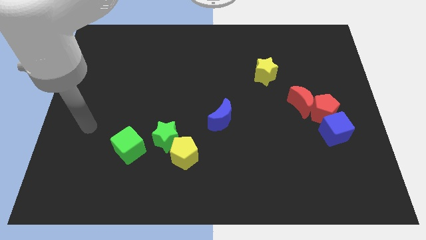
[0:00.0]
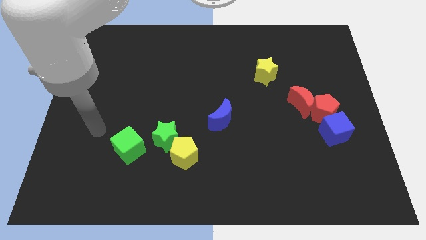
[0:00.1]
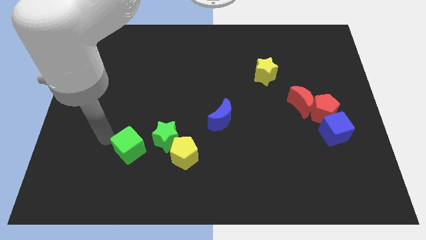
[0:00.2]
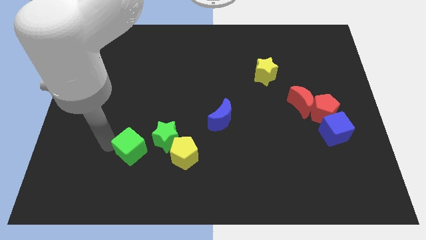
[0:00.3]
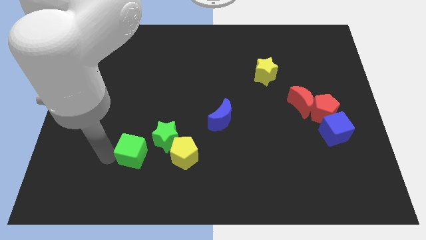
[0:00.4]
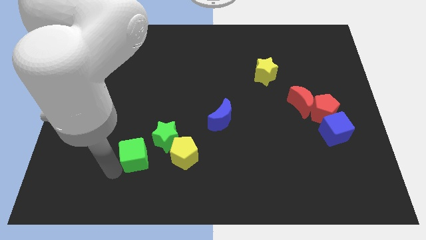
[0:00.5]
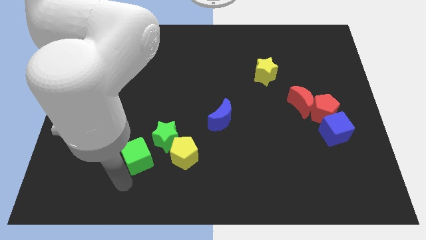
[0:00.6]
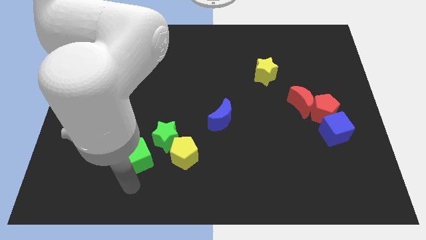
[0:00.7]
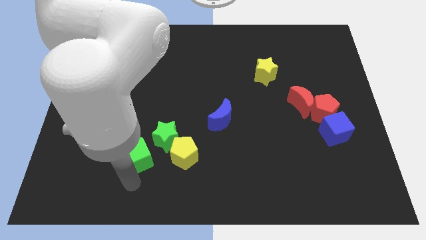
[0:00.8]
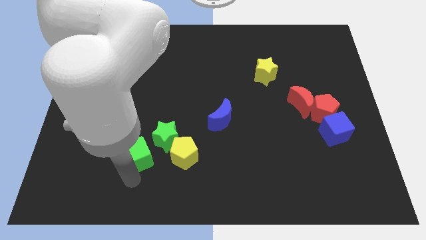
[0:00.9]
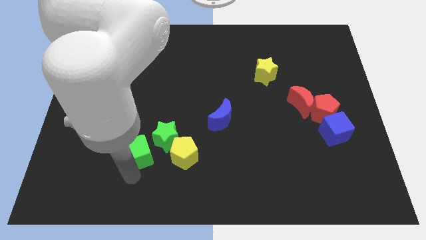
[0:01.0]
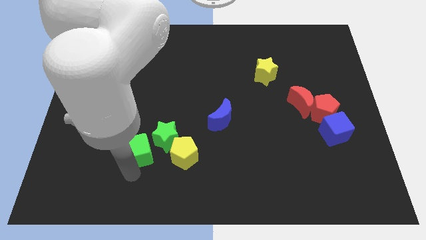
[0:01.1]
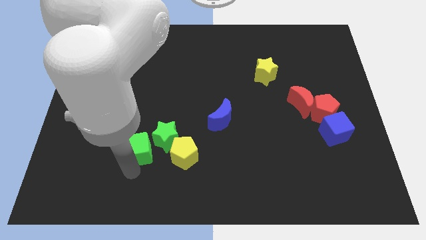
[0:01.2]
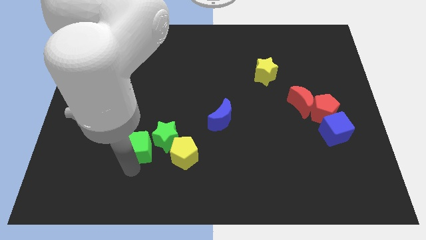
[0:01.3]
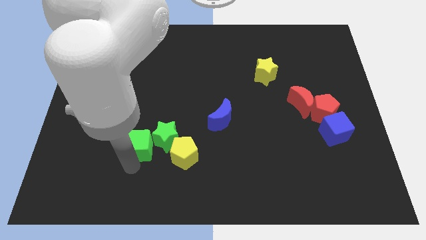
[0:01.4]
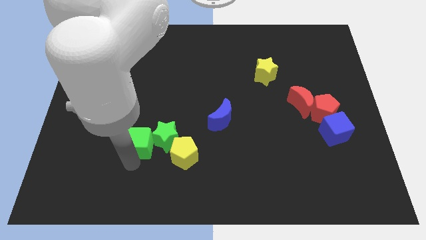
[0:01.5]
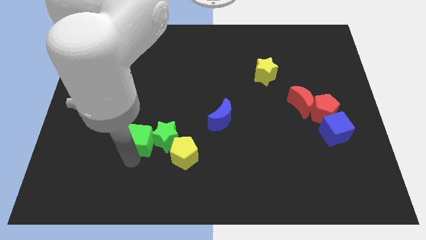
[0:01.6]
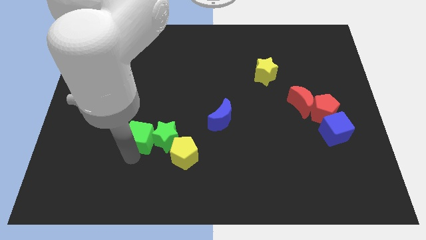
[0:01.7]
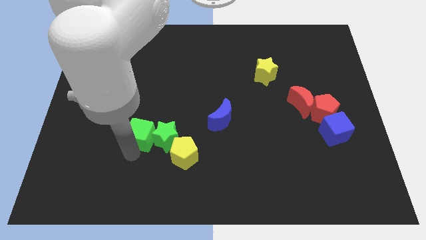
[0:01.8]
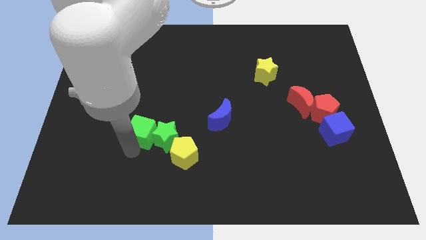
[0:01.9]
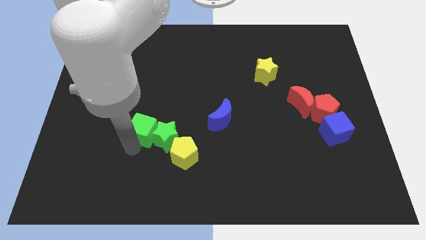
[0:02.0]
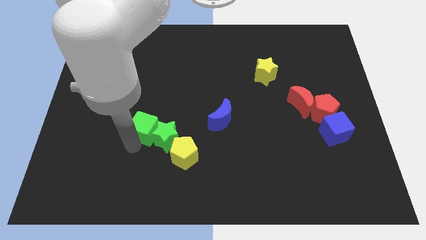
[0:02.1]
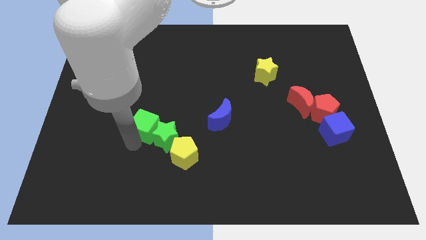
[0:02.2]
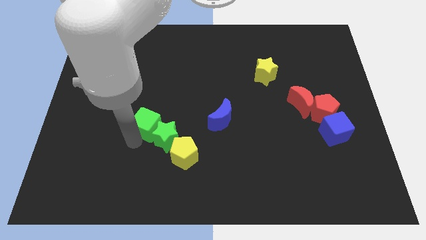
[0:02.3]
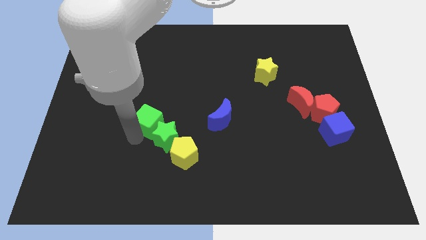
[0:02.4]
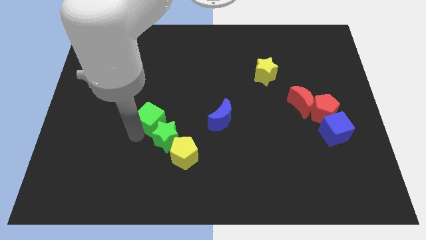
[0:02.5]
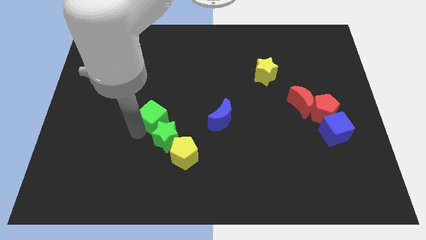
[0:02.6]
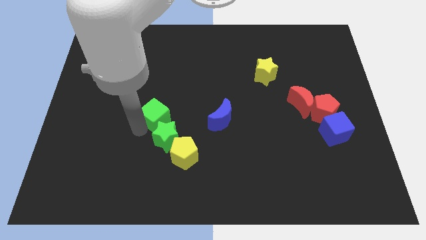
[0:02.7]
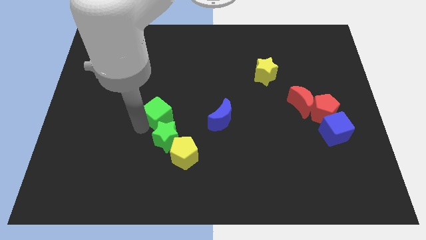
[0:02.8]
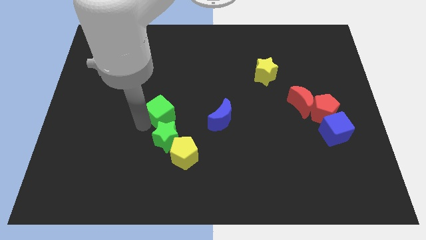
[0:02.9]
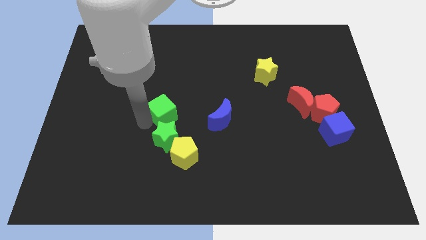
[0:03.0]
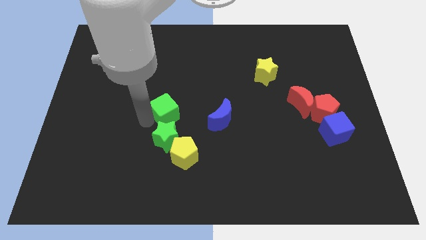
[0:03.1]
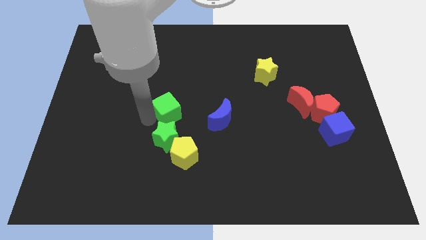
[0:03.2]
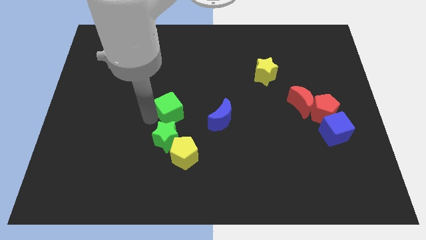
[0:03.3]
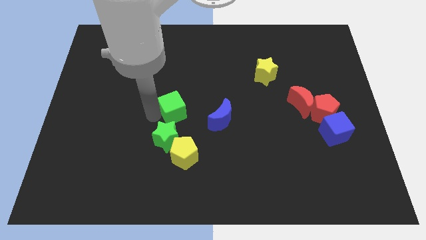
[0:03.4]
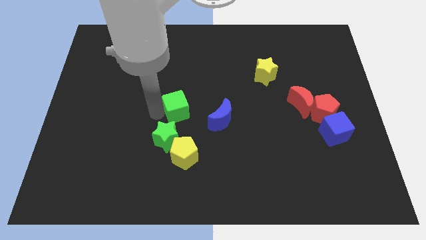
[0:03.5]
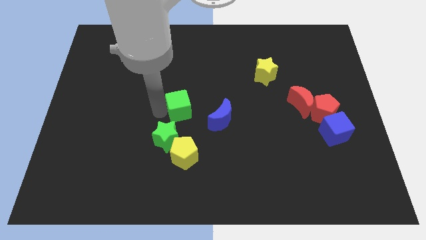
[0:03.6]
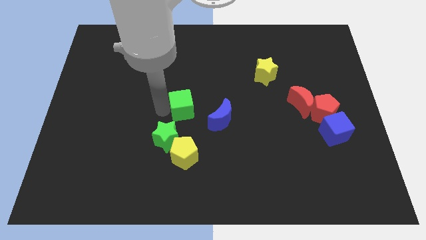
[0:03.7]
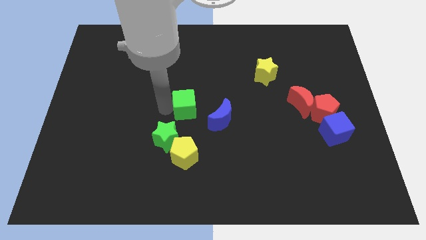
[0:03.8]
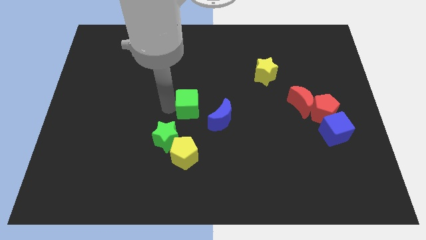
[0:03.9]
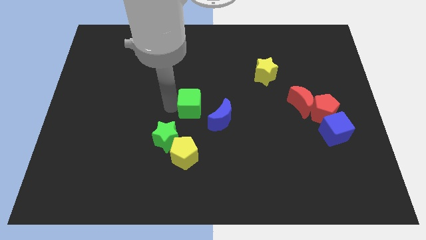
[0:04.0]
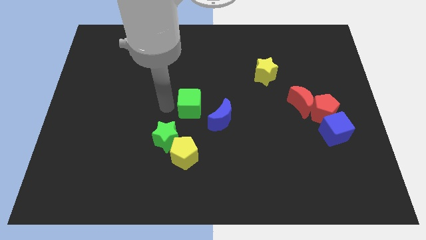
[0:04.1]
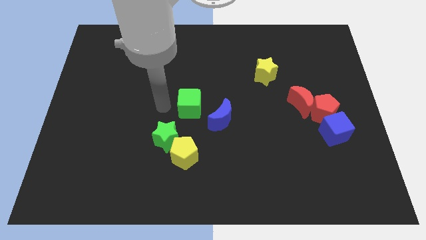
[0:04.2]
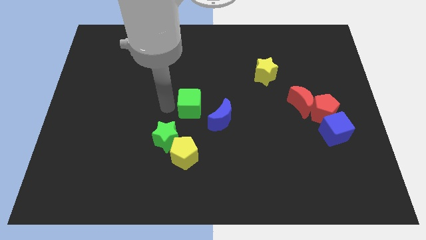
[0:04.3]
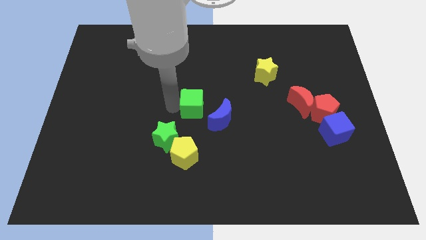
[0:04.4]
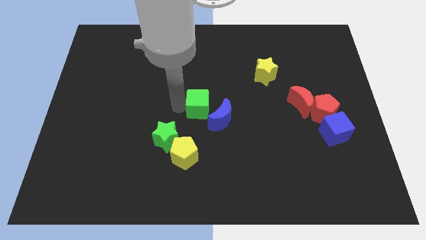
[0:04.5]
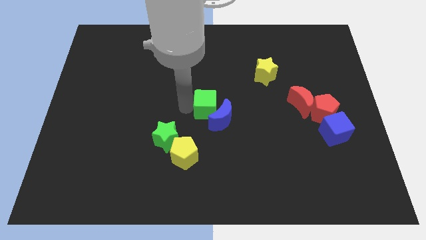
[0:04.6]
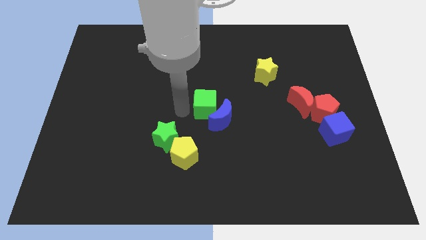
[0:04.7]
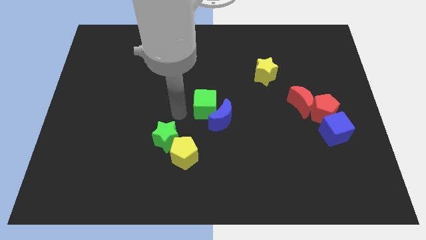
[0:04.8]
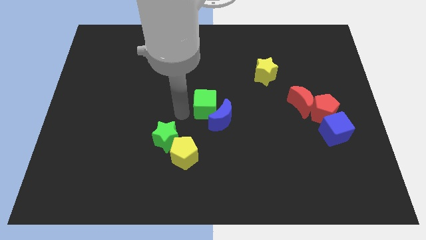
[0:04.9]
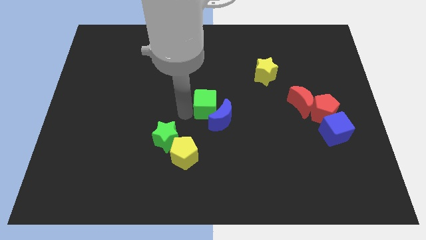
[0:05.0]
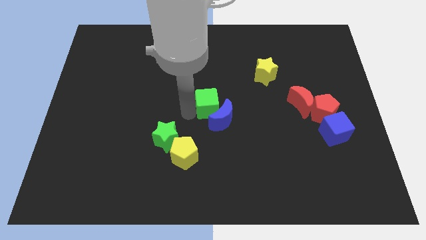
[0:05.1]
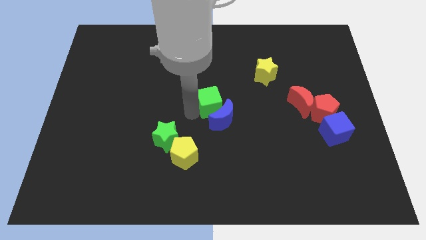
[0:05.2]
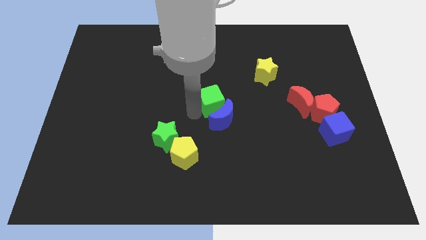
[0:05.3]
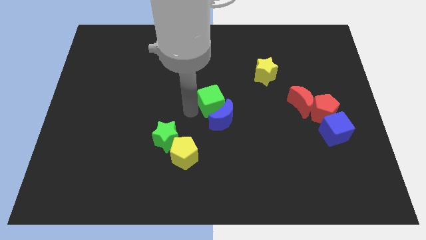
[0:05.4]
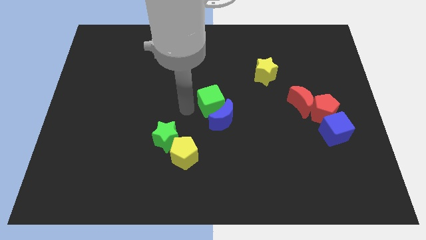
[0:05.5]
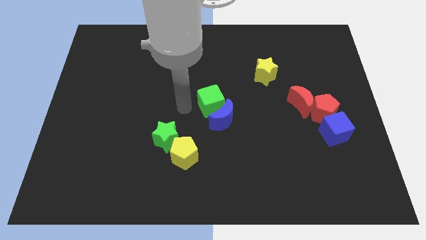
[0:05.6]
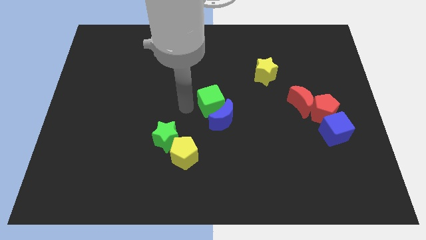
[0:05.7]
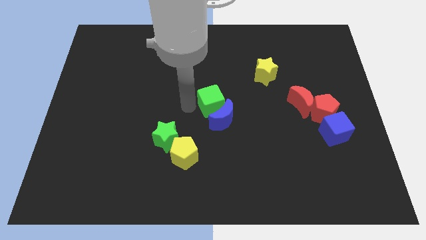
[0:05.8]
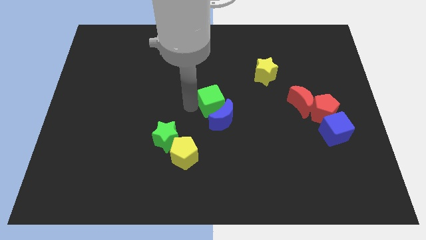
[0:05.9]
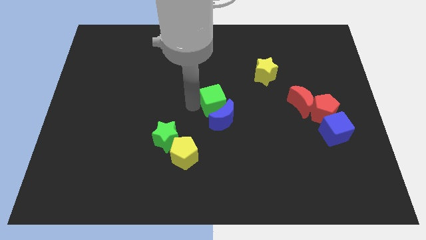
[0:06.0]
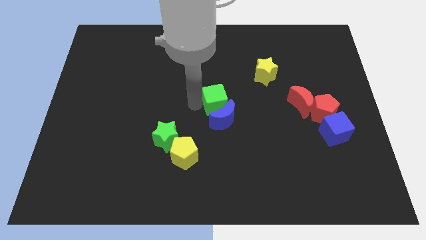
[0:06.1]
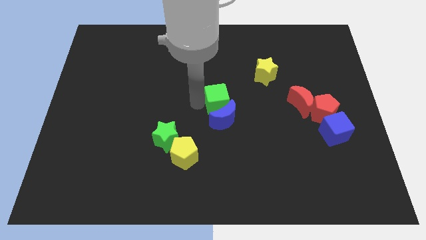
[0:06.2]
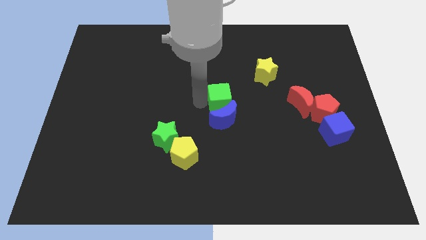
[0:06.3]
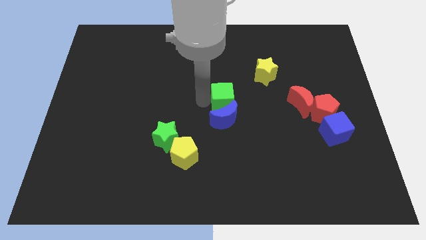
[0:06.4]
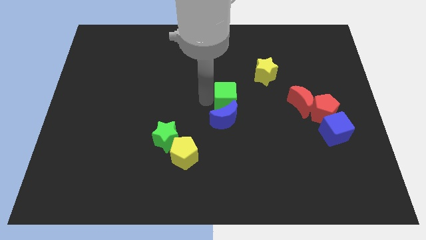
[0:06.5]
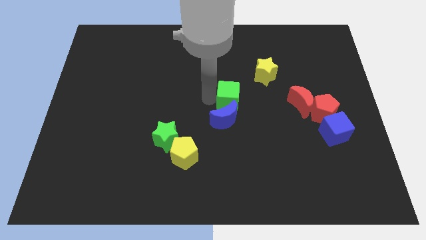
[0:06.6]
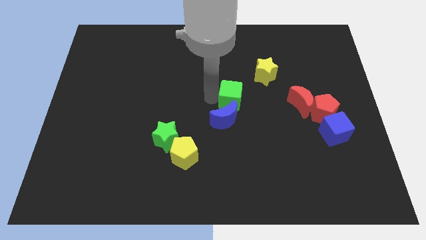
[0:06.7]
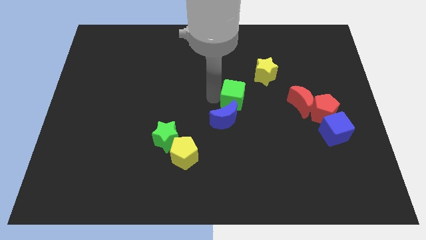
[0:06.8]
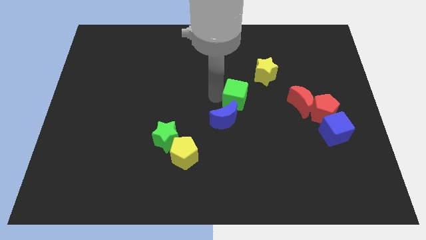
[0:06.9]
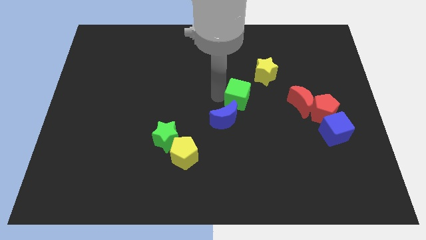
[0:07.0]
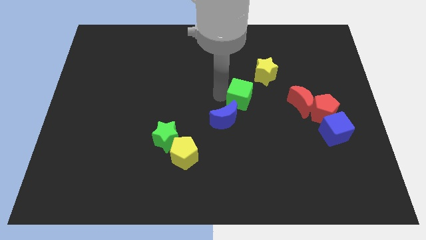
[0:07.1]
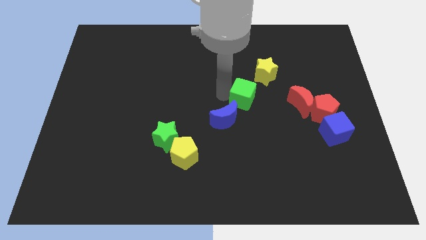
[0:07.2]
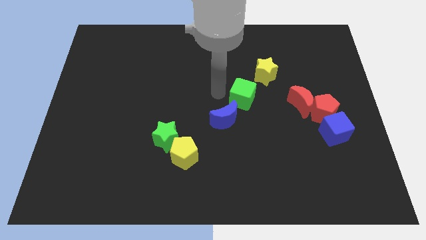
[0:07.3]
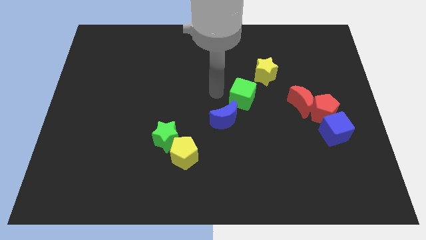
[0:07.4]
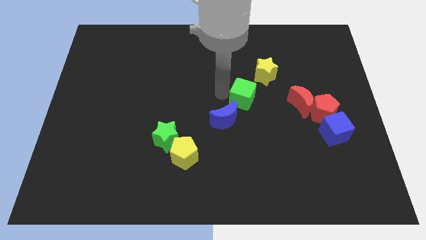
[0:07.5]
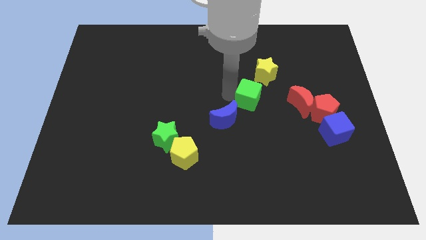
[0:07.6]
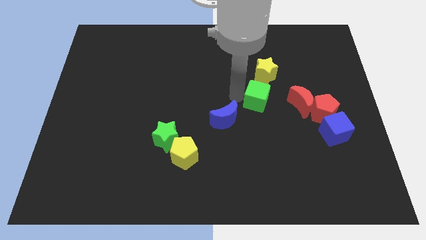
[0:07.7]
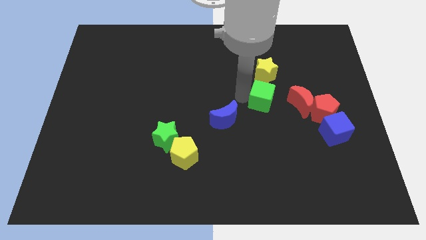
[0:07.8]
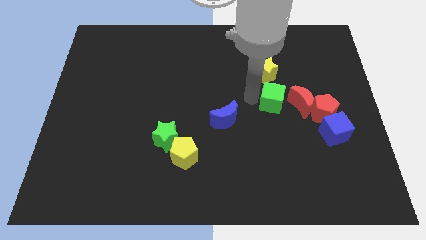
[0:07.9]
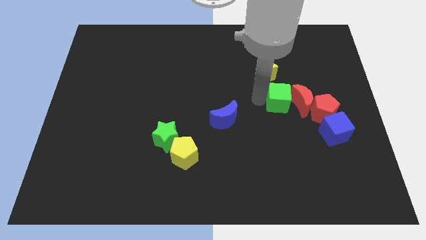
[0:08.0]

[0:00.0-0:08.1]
slide the green cube close to the red moon
